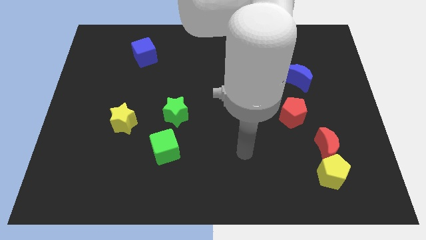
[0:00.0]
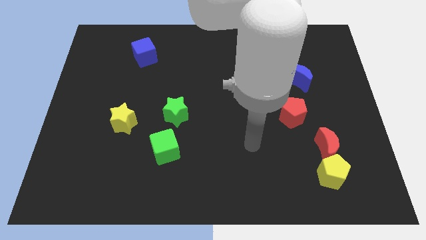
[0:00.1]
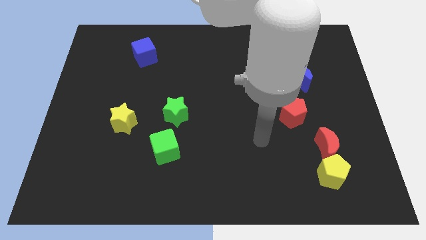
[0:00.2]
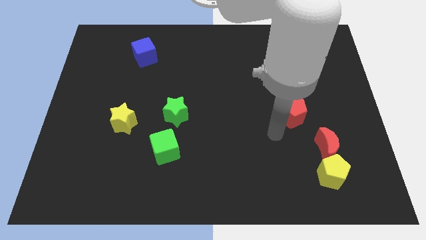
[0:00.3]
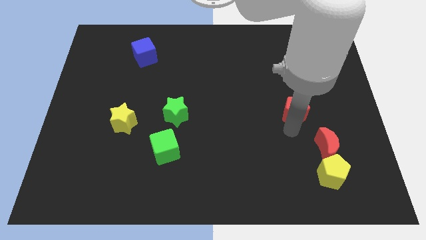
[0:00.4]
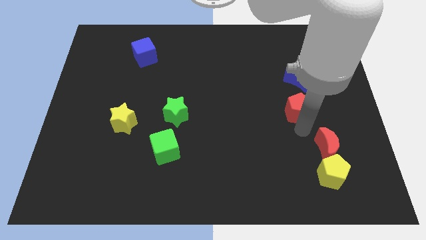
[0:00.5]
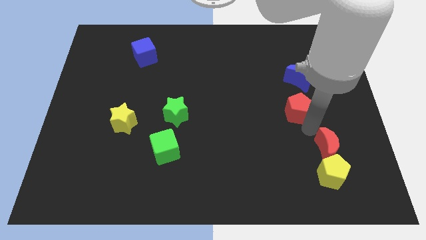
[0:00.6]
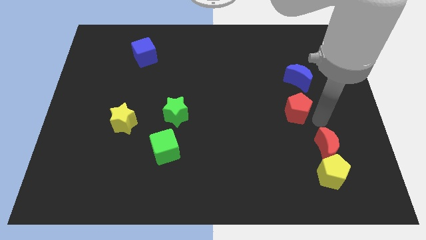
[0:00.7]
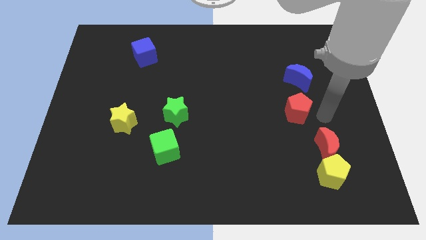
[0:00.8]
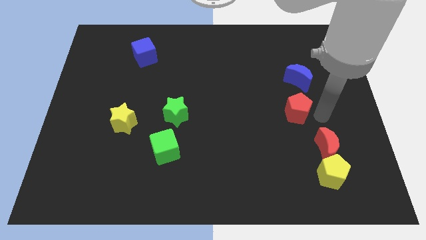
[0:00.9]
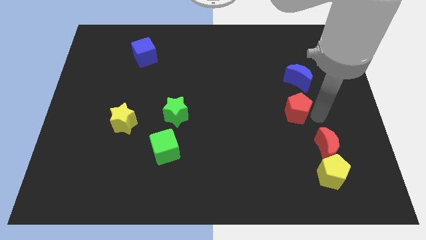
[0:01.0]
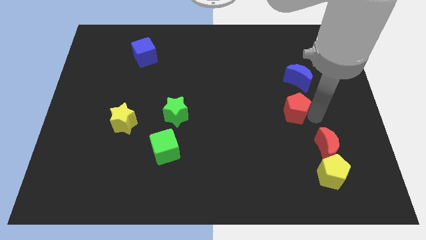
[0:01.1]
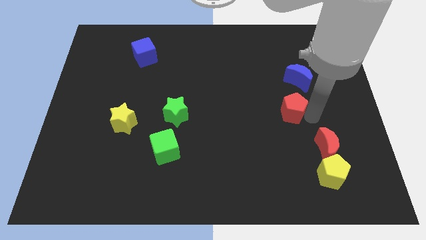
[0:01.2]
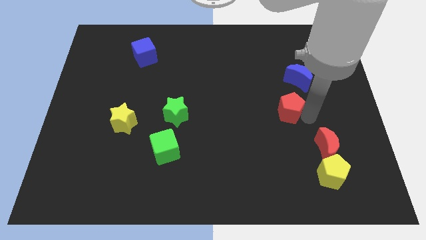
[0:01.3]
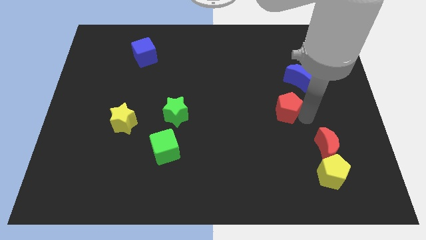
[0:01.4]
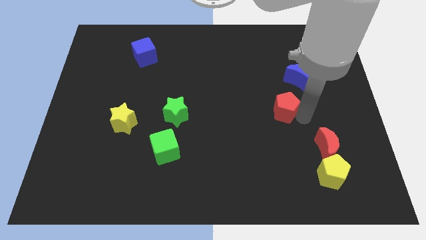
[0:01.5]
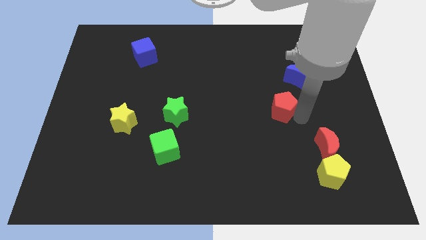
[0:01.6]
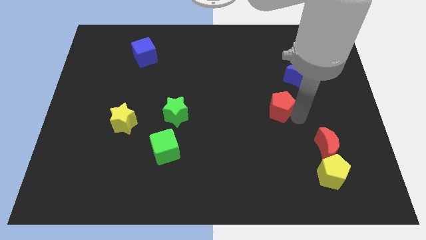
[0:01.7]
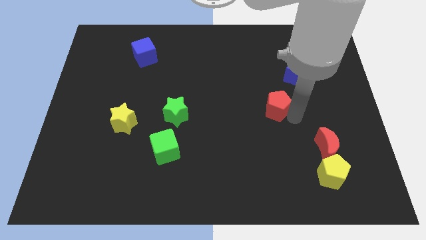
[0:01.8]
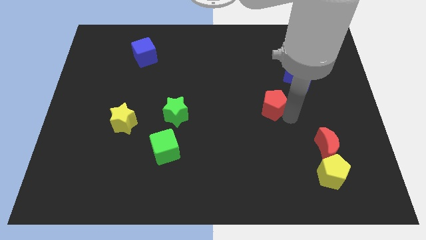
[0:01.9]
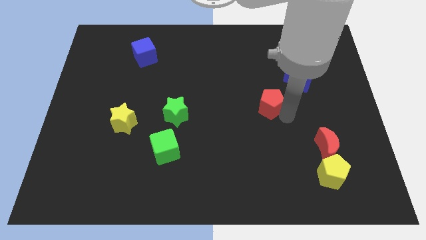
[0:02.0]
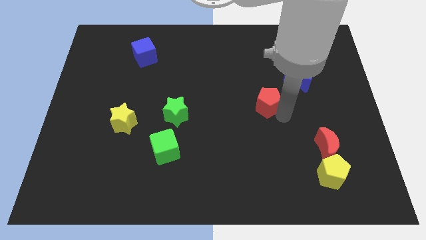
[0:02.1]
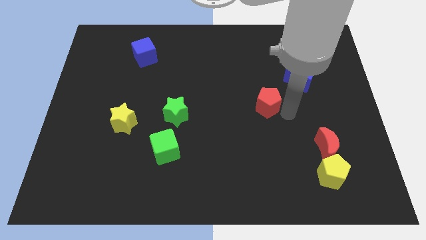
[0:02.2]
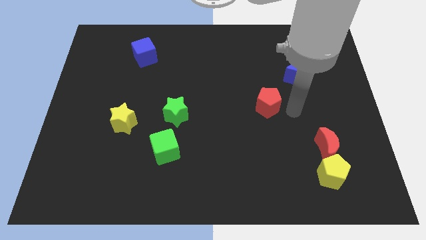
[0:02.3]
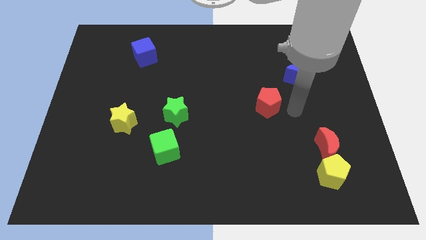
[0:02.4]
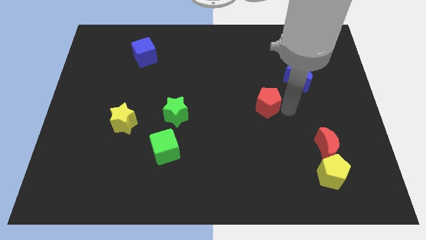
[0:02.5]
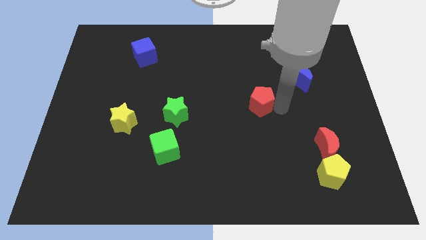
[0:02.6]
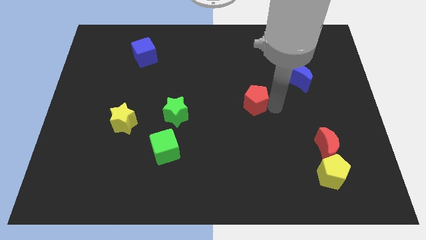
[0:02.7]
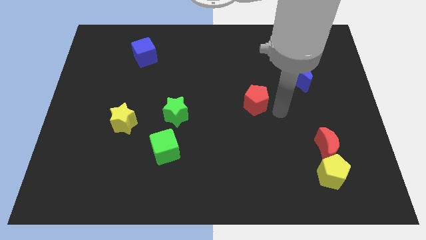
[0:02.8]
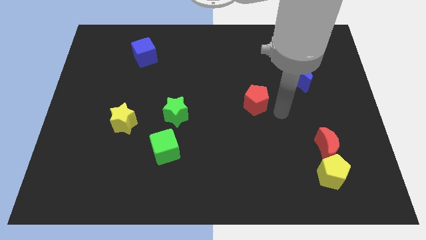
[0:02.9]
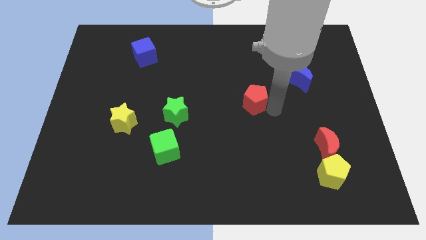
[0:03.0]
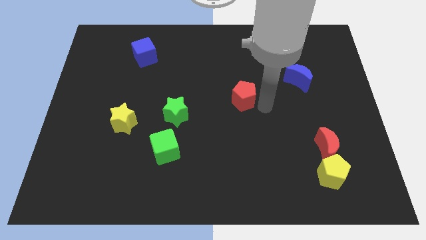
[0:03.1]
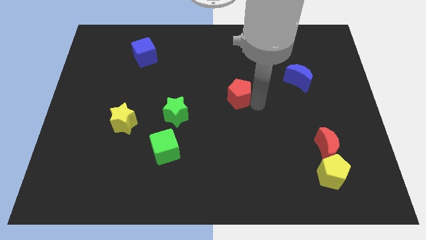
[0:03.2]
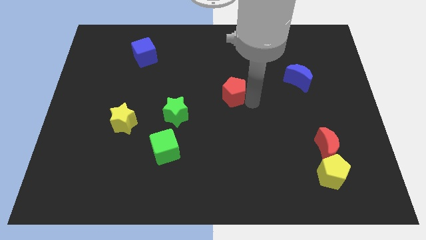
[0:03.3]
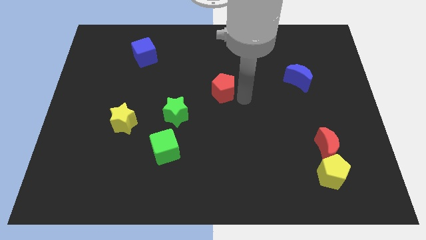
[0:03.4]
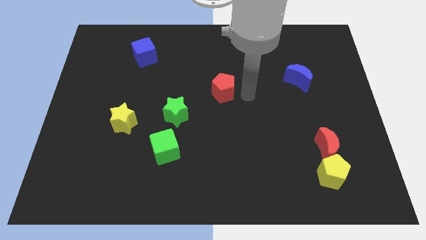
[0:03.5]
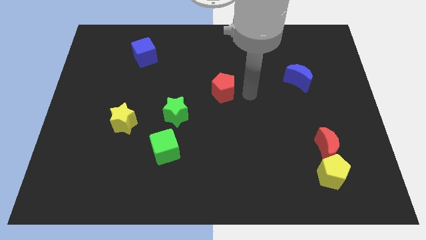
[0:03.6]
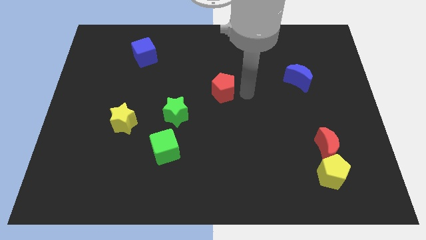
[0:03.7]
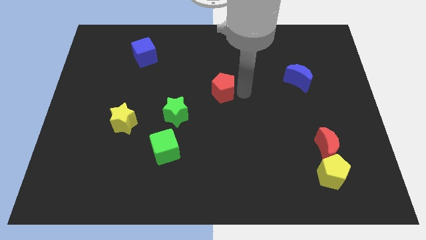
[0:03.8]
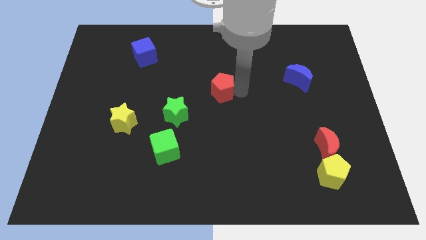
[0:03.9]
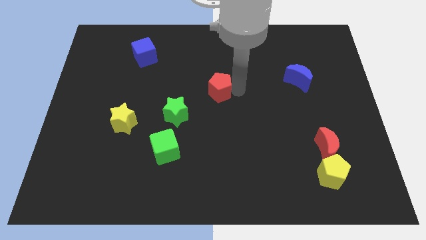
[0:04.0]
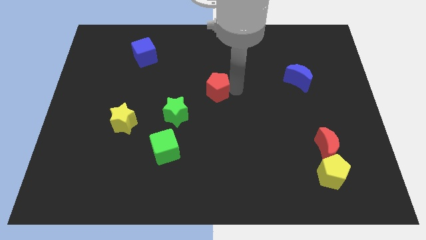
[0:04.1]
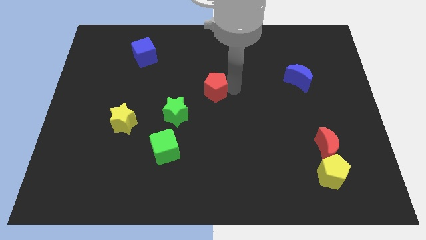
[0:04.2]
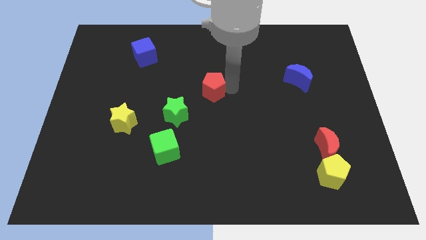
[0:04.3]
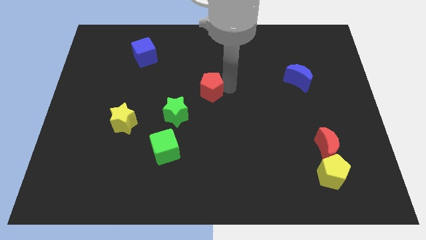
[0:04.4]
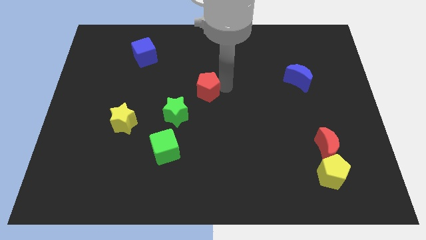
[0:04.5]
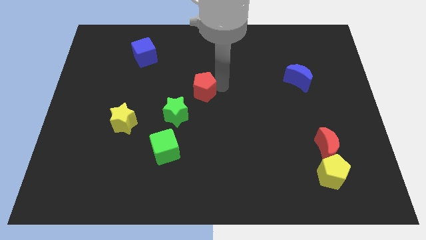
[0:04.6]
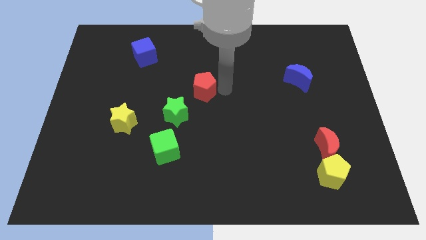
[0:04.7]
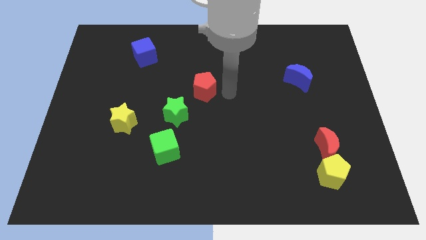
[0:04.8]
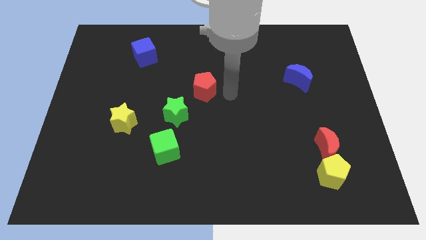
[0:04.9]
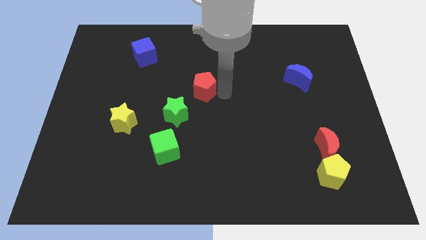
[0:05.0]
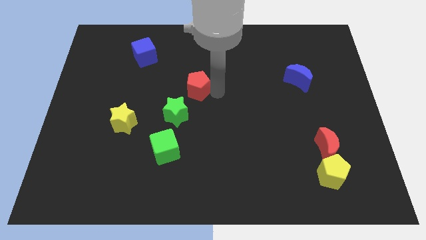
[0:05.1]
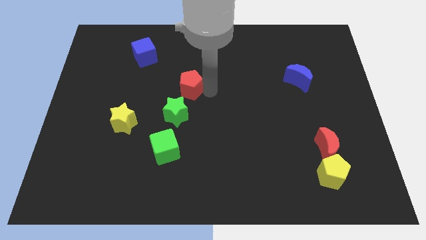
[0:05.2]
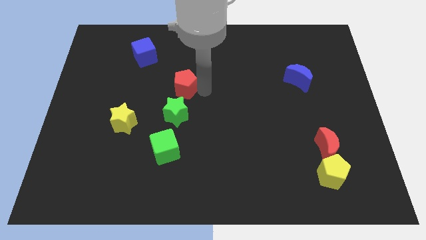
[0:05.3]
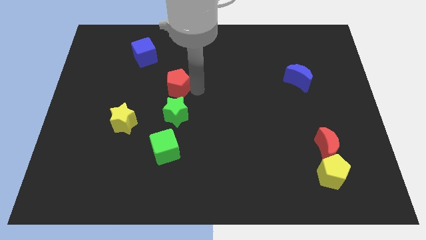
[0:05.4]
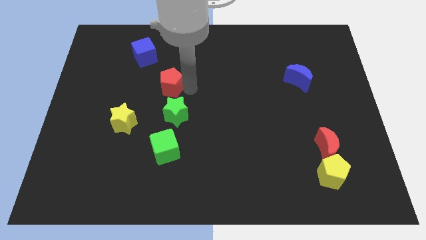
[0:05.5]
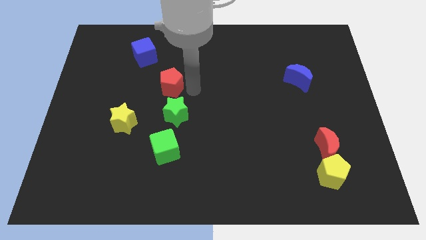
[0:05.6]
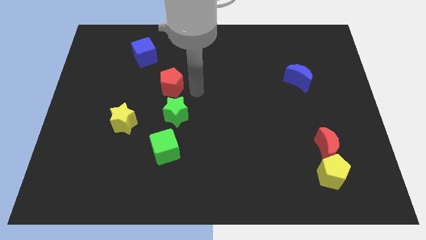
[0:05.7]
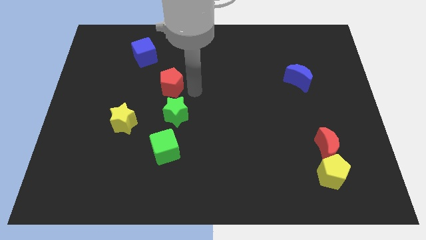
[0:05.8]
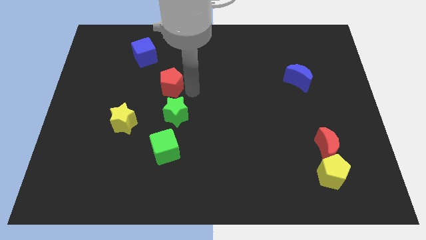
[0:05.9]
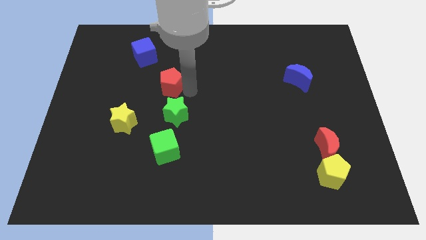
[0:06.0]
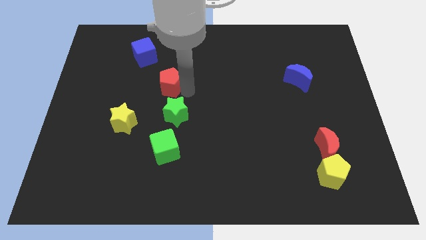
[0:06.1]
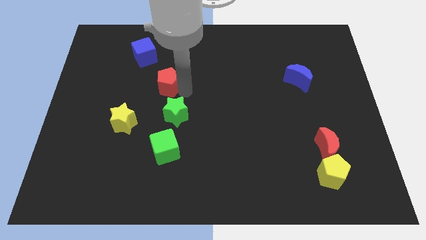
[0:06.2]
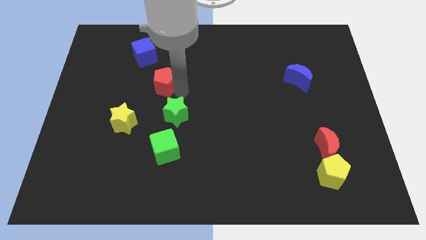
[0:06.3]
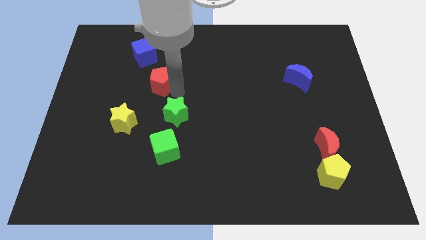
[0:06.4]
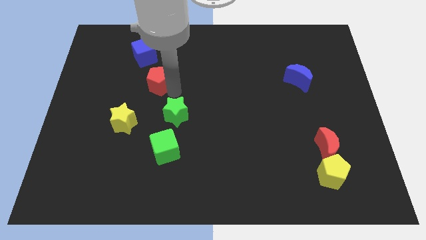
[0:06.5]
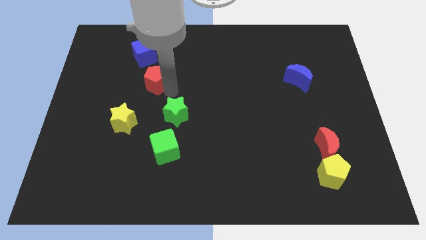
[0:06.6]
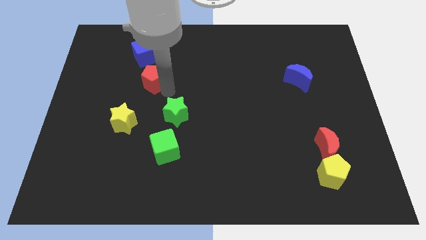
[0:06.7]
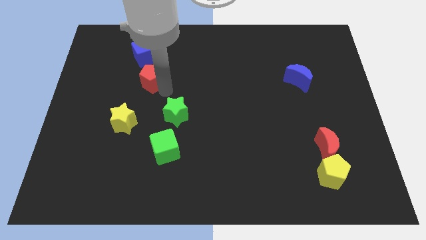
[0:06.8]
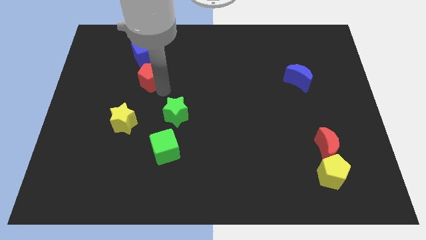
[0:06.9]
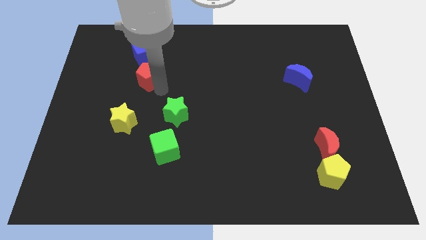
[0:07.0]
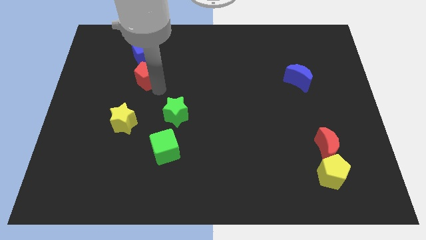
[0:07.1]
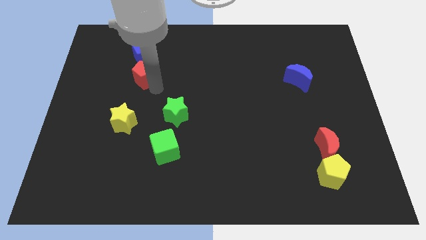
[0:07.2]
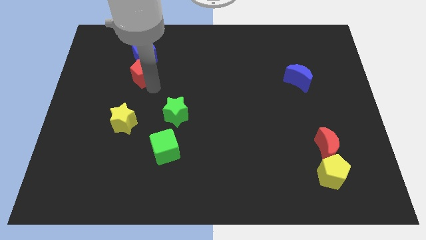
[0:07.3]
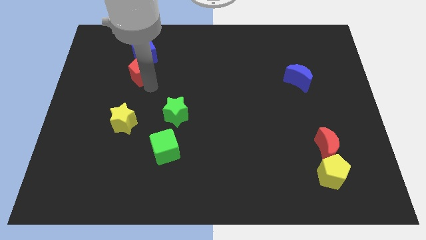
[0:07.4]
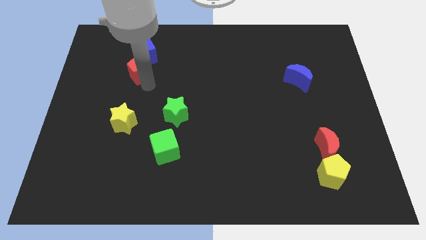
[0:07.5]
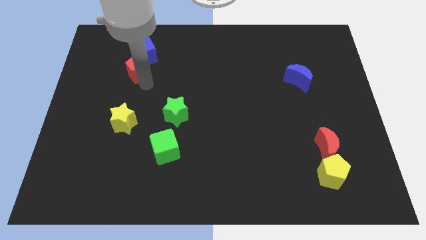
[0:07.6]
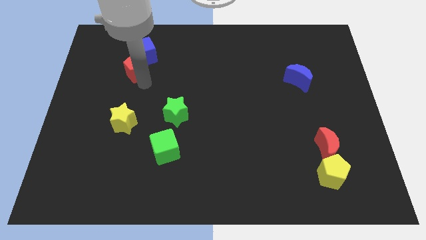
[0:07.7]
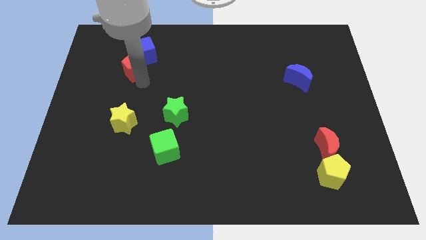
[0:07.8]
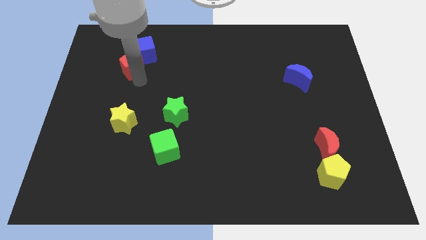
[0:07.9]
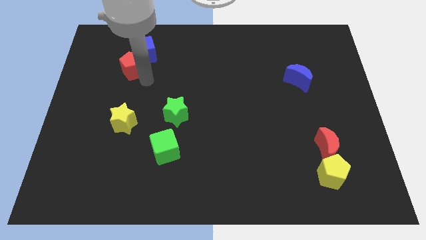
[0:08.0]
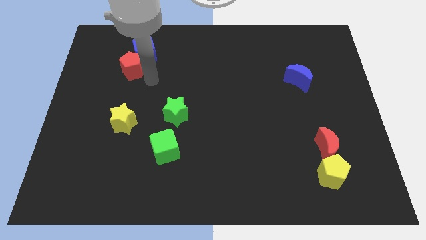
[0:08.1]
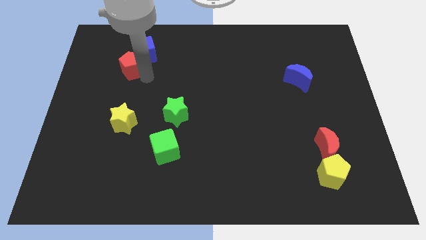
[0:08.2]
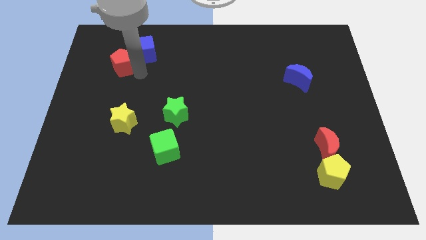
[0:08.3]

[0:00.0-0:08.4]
slide the red pentagon just left of the blue cube
